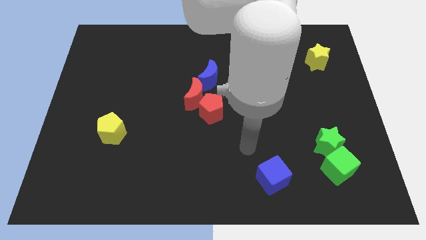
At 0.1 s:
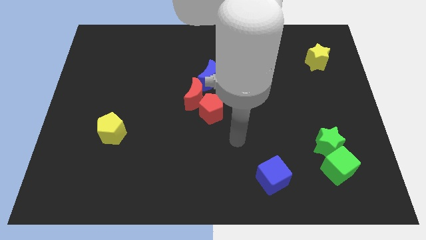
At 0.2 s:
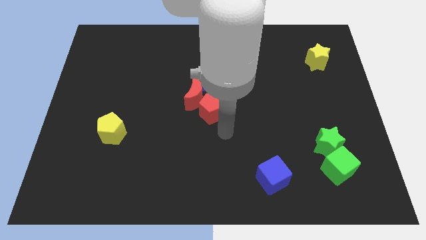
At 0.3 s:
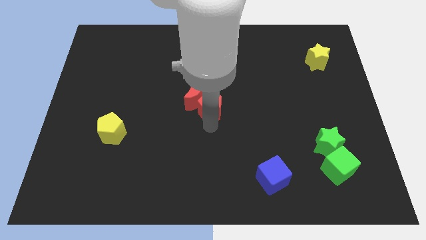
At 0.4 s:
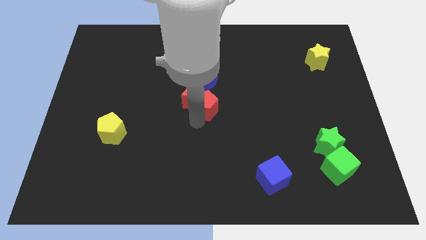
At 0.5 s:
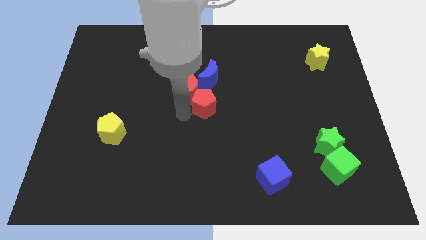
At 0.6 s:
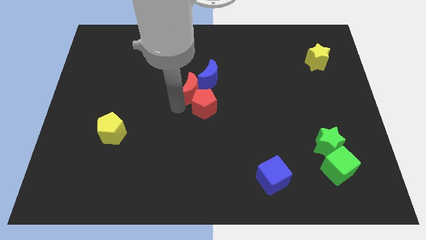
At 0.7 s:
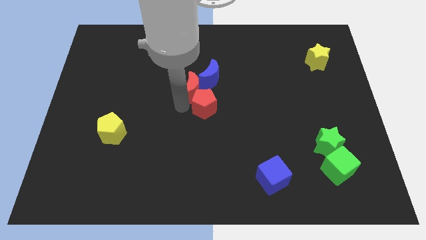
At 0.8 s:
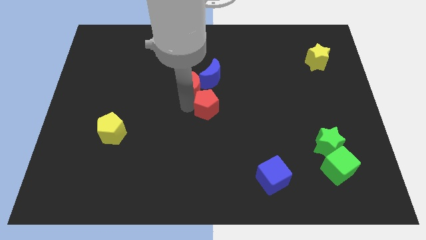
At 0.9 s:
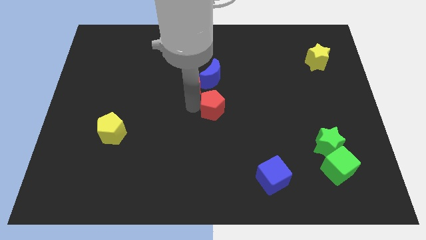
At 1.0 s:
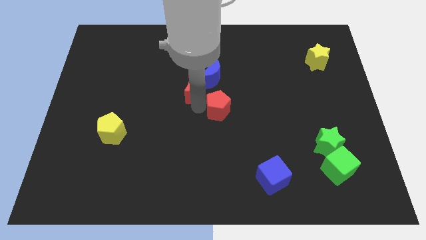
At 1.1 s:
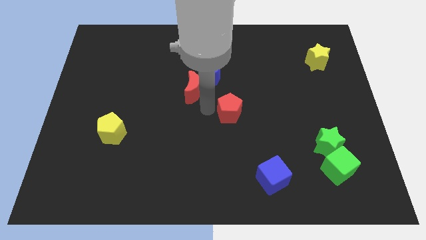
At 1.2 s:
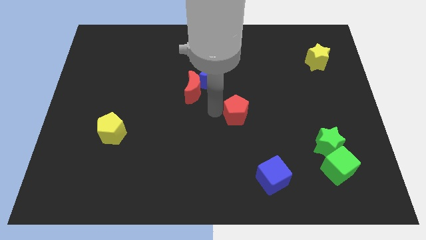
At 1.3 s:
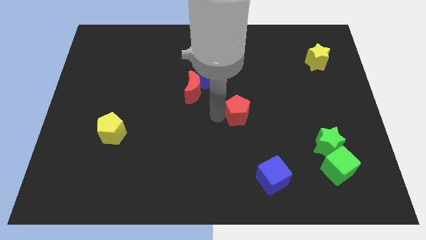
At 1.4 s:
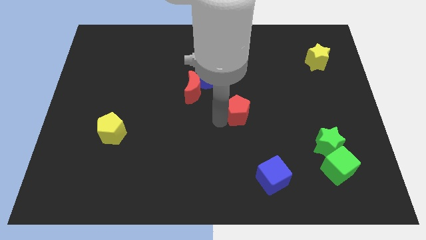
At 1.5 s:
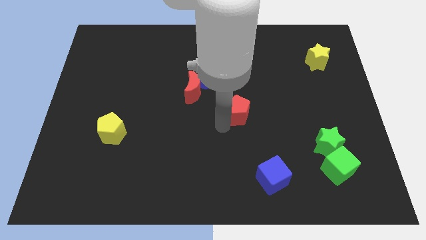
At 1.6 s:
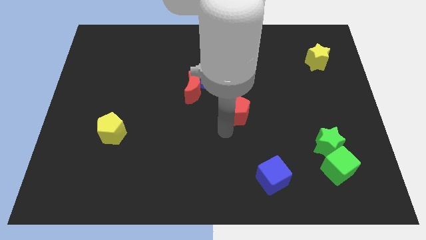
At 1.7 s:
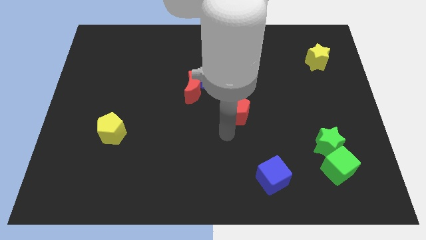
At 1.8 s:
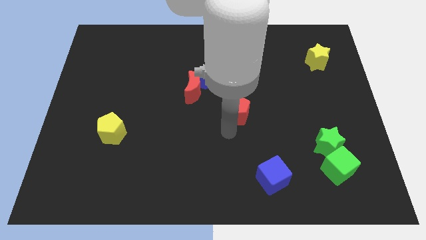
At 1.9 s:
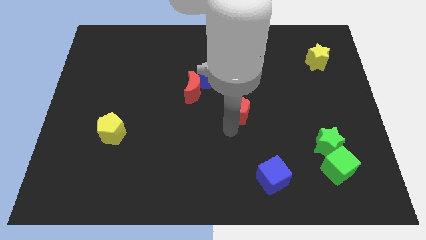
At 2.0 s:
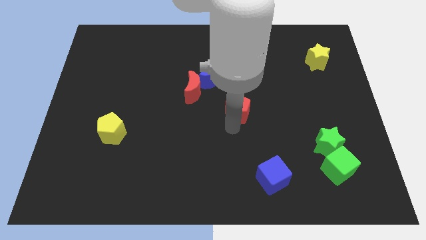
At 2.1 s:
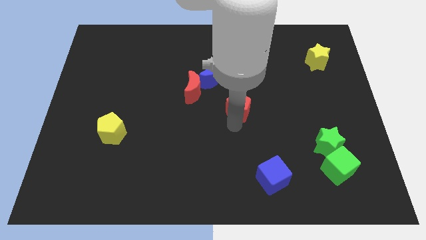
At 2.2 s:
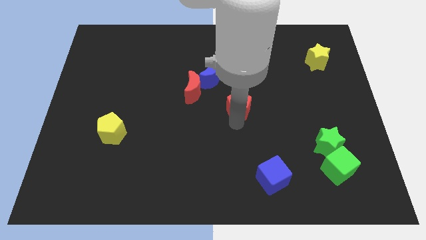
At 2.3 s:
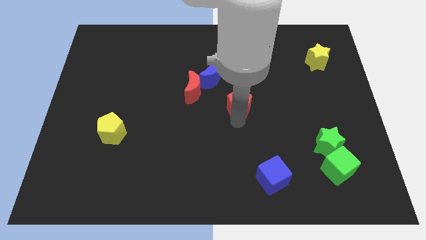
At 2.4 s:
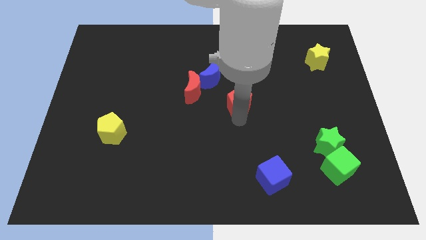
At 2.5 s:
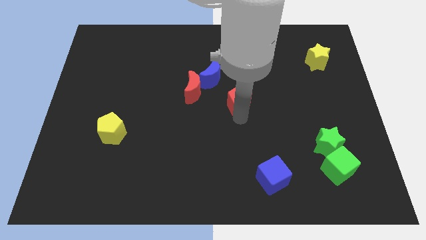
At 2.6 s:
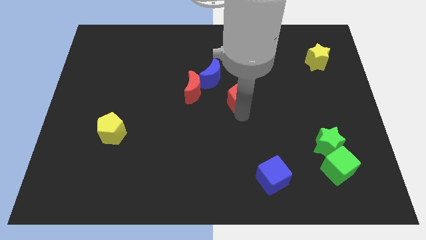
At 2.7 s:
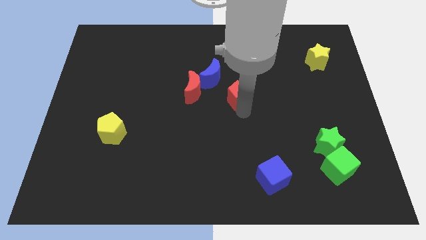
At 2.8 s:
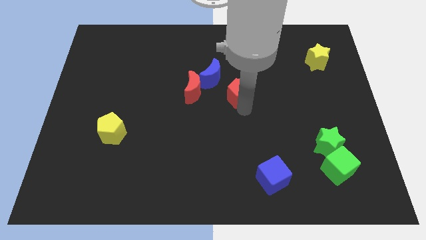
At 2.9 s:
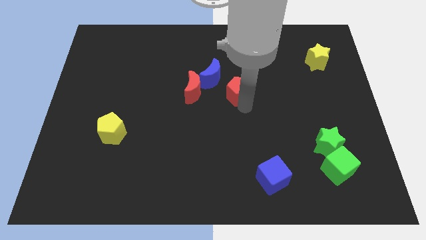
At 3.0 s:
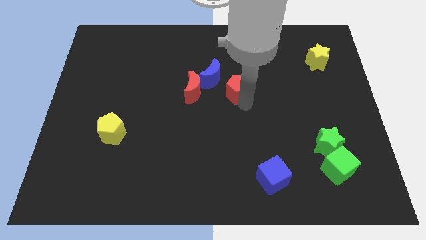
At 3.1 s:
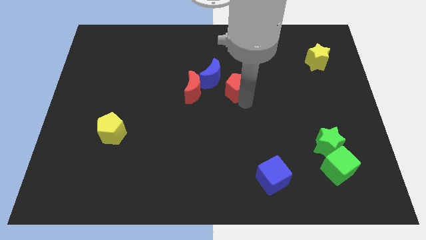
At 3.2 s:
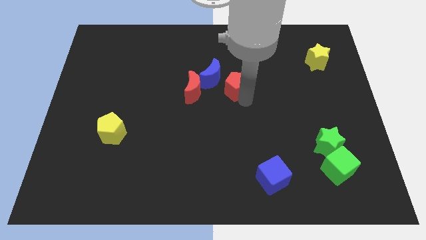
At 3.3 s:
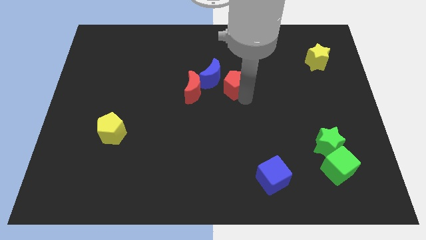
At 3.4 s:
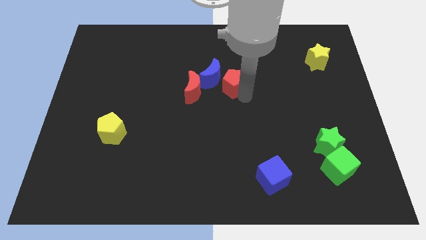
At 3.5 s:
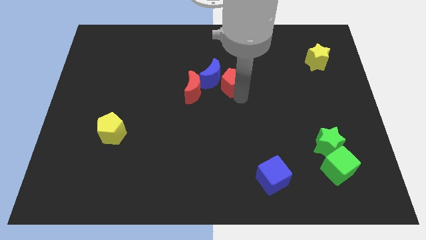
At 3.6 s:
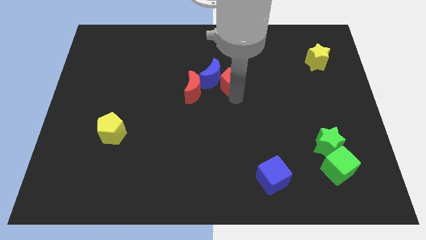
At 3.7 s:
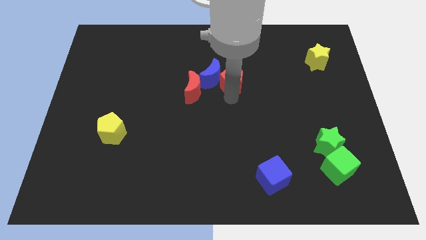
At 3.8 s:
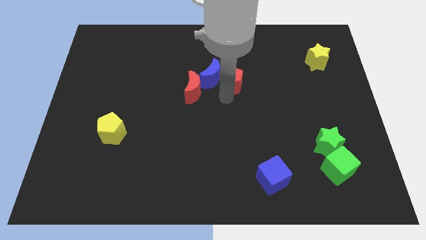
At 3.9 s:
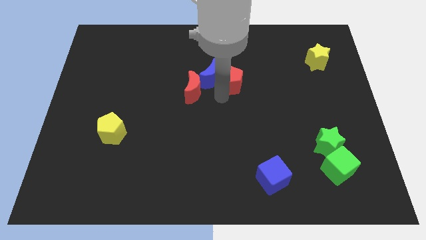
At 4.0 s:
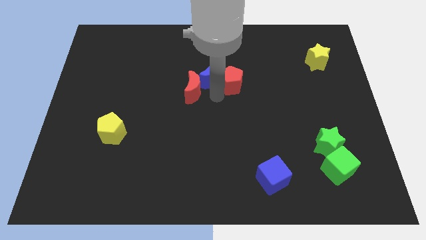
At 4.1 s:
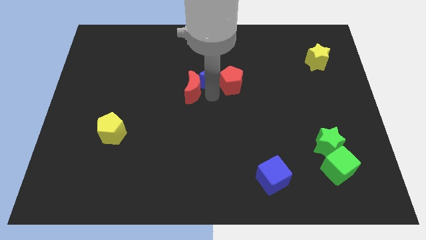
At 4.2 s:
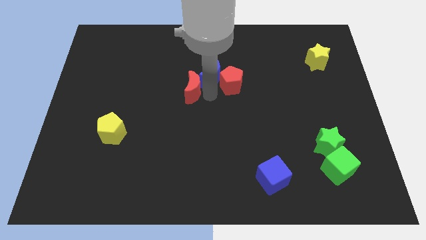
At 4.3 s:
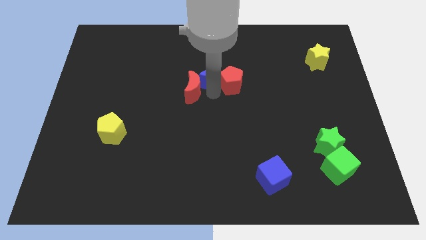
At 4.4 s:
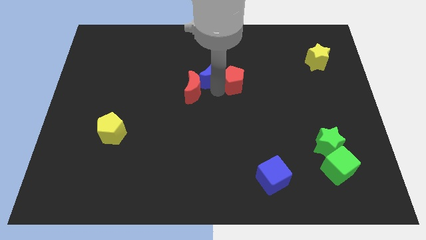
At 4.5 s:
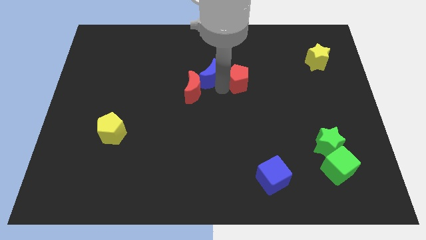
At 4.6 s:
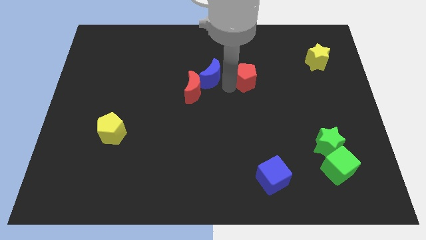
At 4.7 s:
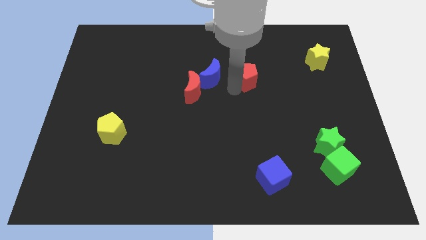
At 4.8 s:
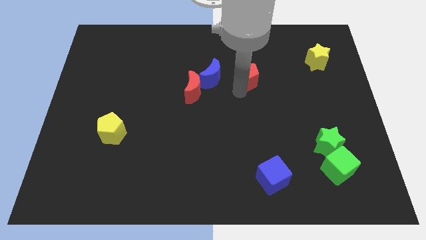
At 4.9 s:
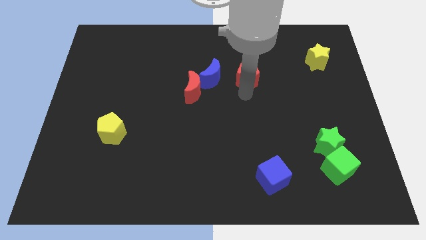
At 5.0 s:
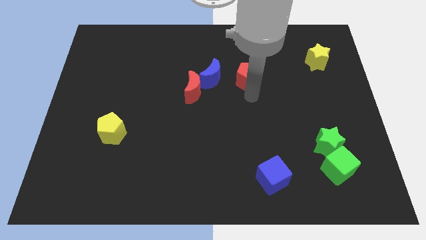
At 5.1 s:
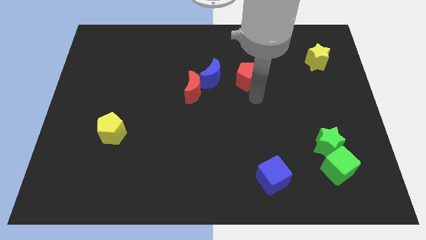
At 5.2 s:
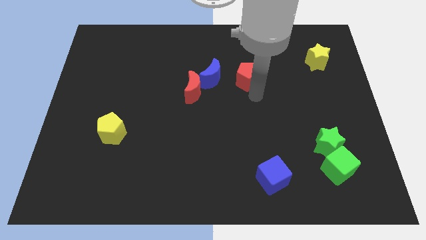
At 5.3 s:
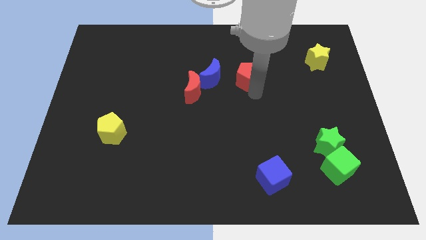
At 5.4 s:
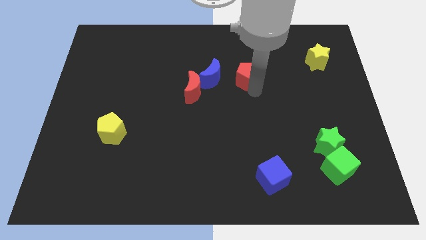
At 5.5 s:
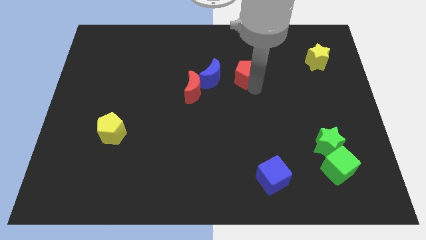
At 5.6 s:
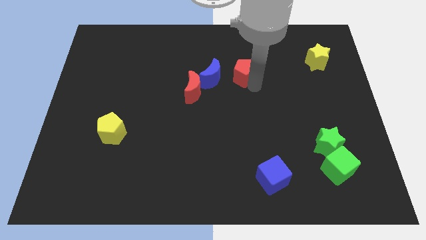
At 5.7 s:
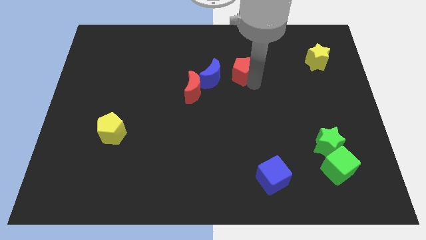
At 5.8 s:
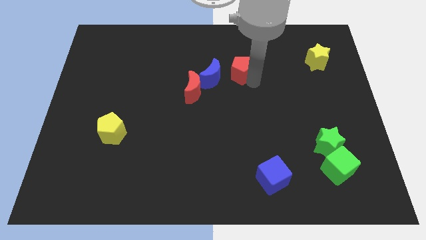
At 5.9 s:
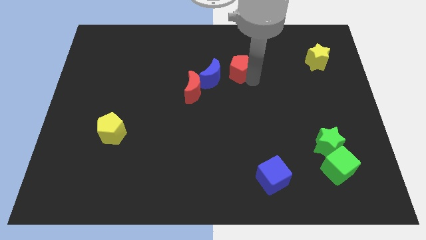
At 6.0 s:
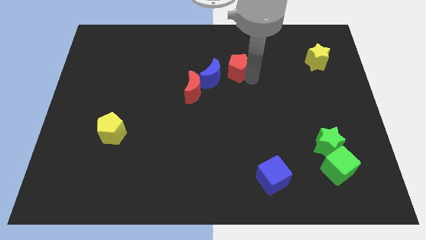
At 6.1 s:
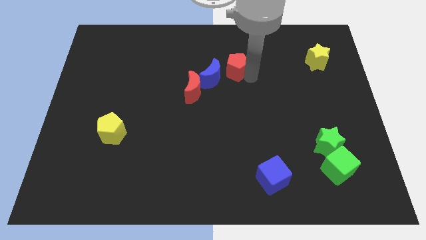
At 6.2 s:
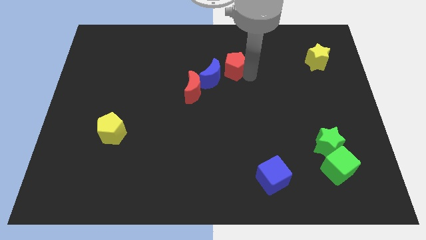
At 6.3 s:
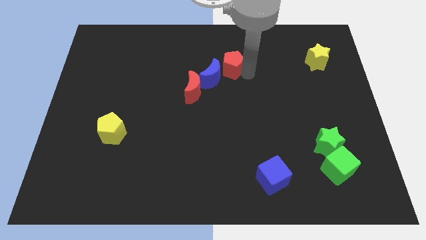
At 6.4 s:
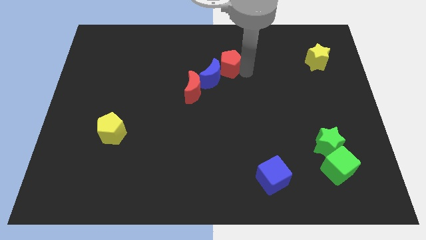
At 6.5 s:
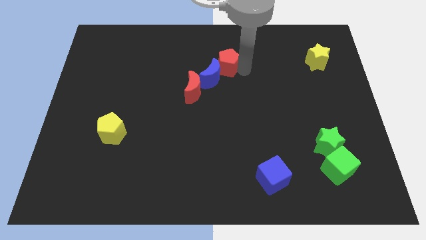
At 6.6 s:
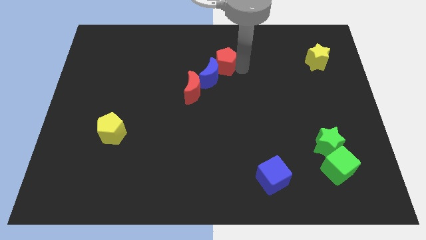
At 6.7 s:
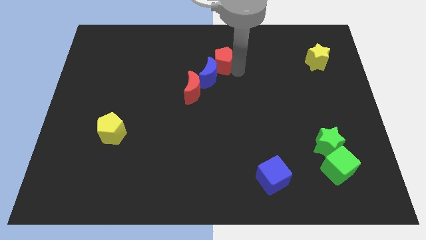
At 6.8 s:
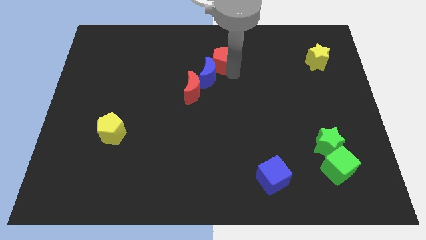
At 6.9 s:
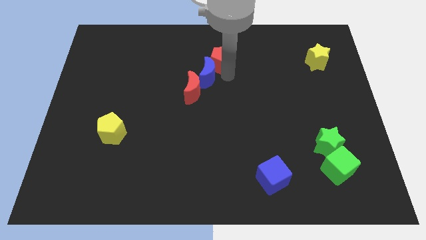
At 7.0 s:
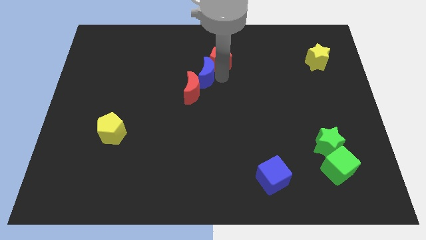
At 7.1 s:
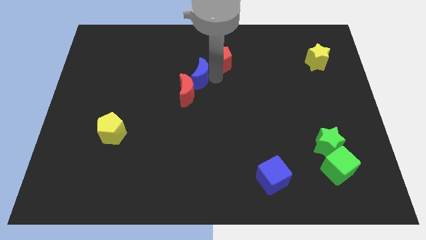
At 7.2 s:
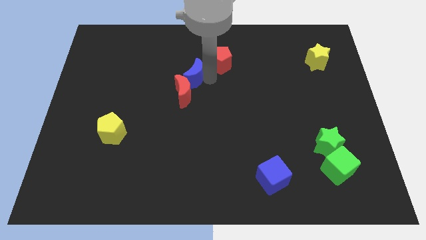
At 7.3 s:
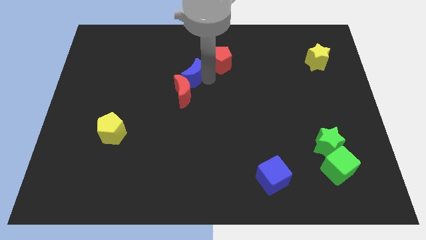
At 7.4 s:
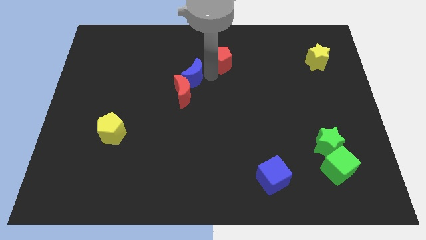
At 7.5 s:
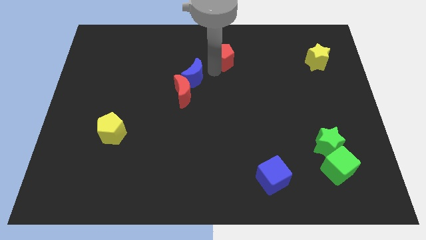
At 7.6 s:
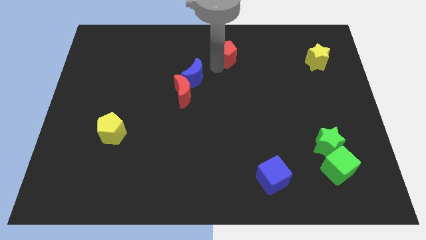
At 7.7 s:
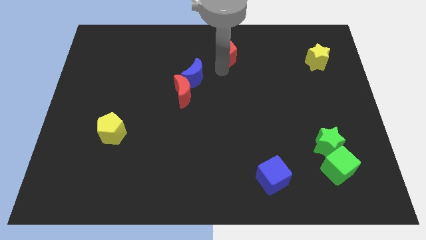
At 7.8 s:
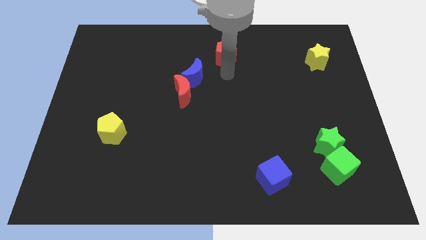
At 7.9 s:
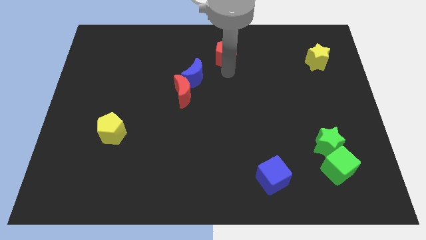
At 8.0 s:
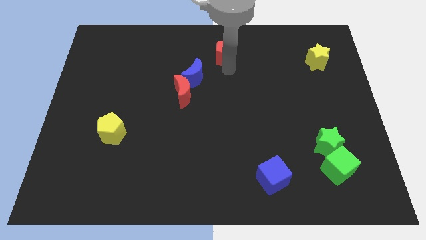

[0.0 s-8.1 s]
slide the red pentagon to the top
